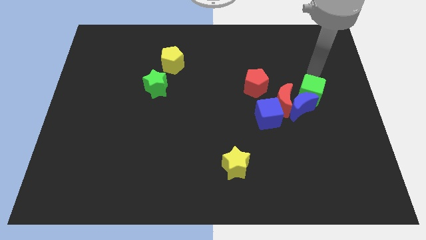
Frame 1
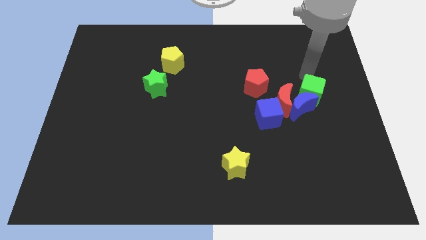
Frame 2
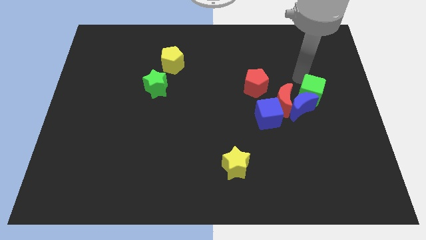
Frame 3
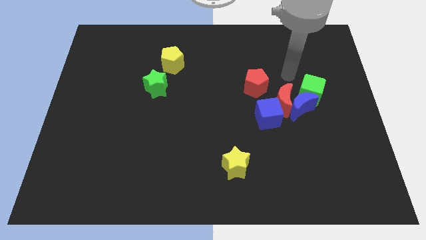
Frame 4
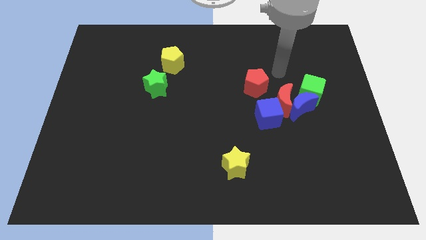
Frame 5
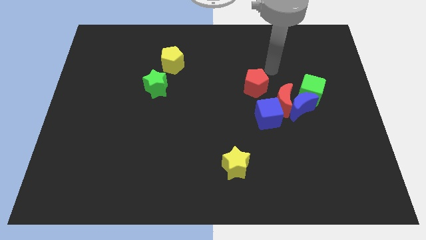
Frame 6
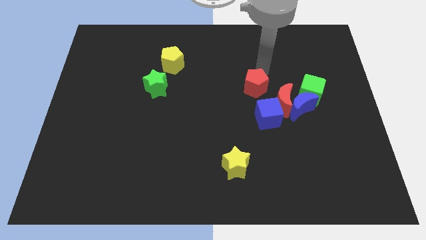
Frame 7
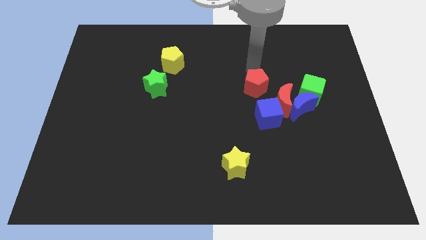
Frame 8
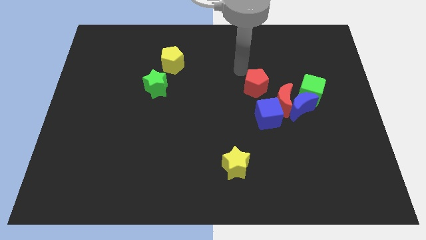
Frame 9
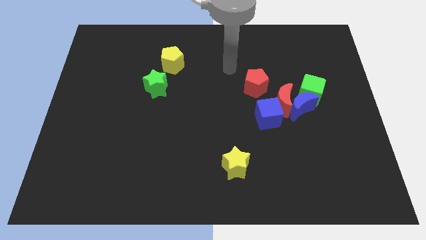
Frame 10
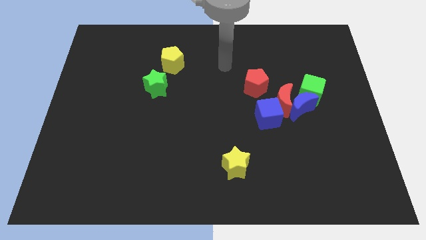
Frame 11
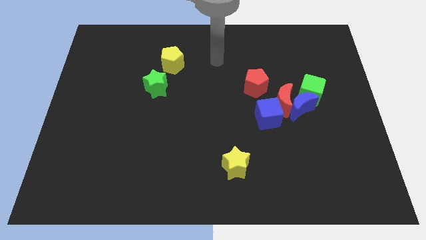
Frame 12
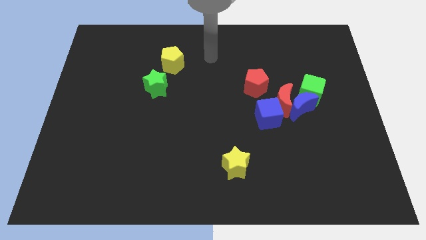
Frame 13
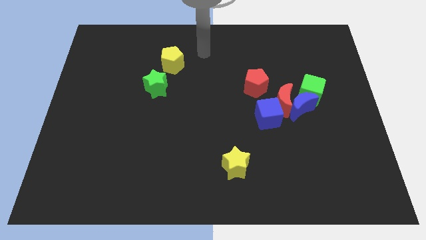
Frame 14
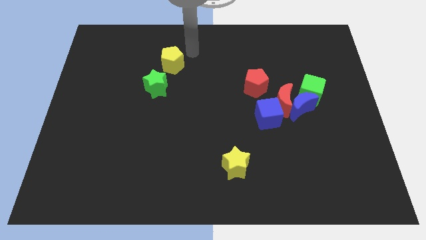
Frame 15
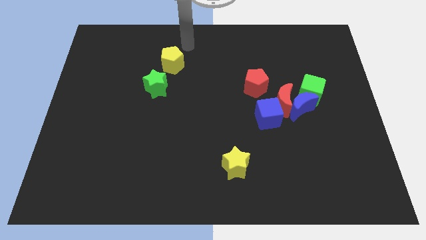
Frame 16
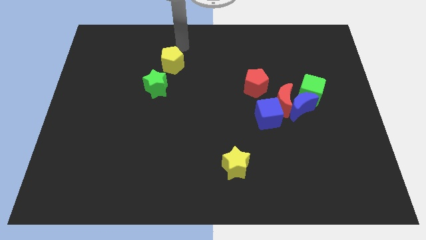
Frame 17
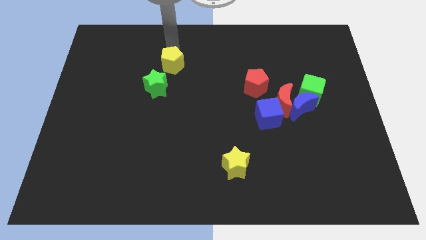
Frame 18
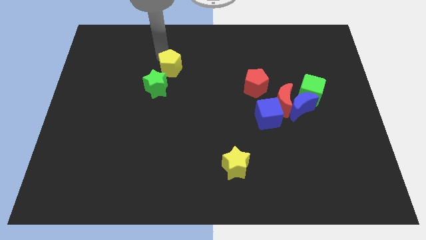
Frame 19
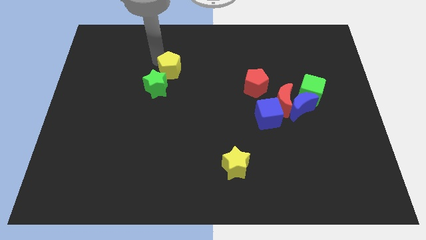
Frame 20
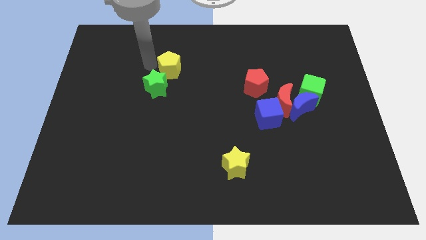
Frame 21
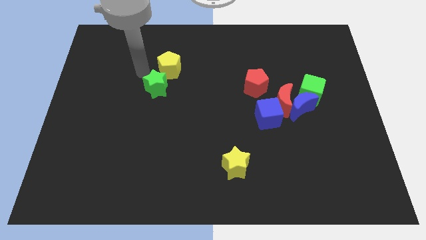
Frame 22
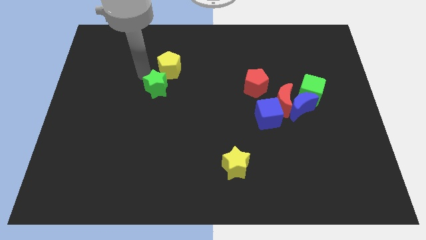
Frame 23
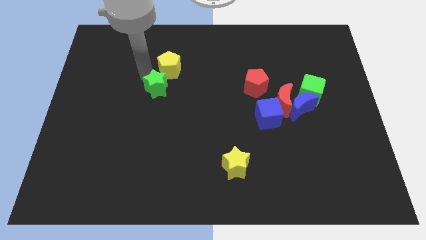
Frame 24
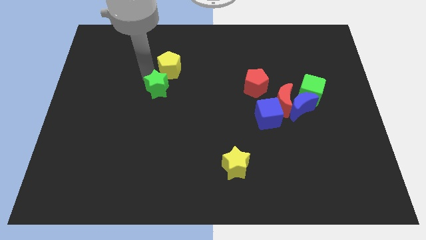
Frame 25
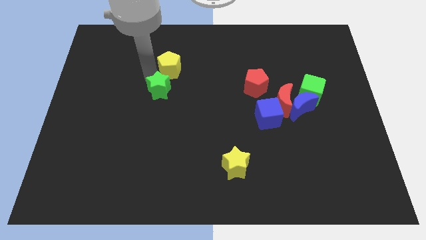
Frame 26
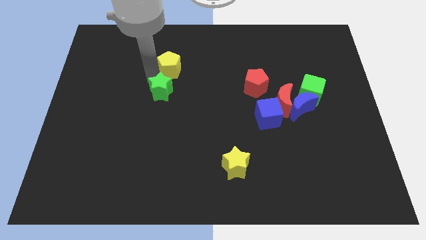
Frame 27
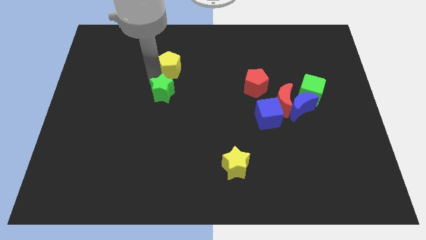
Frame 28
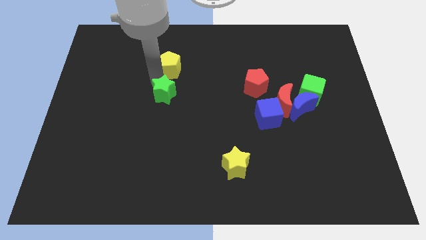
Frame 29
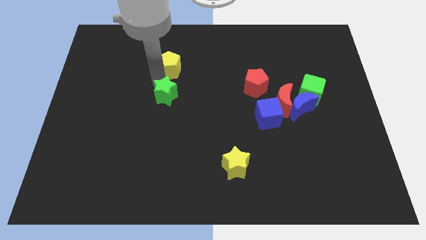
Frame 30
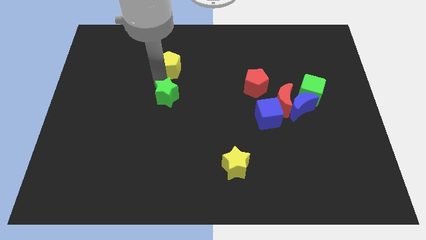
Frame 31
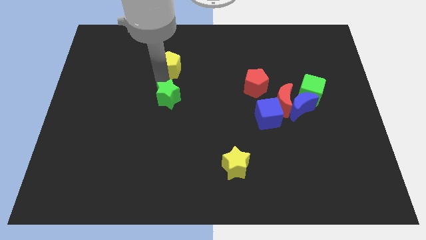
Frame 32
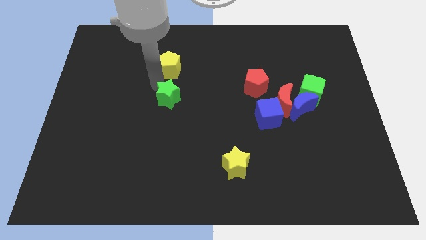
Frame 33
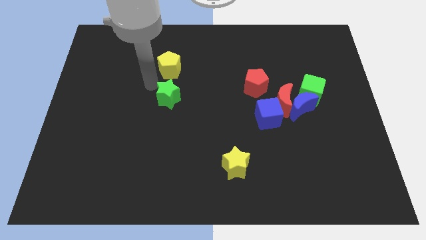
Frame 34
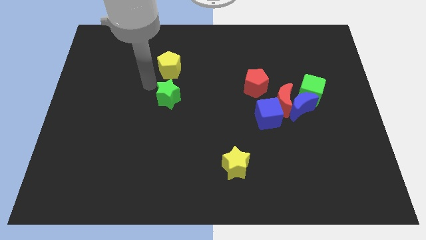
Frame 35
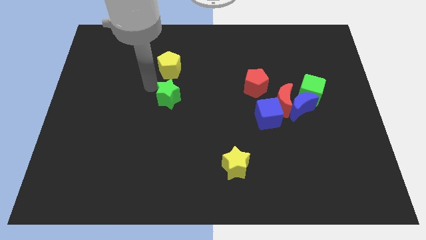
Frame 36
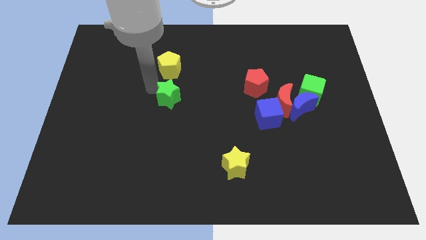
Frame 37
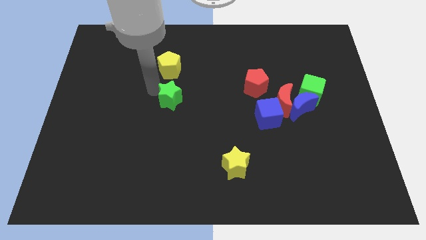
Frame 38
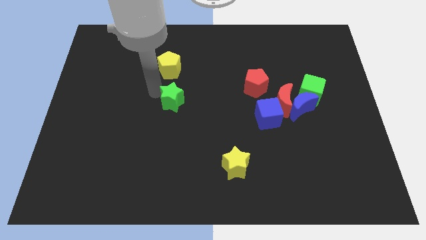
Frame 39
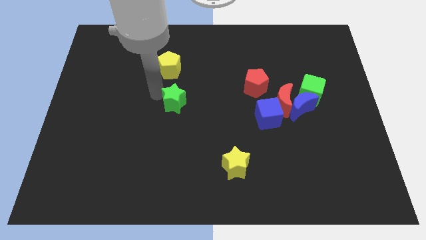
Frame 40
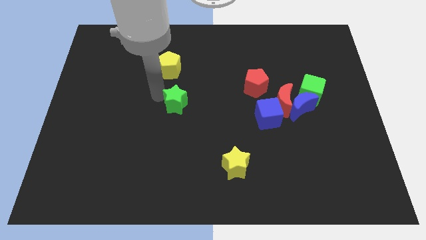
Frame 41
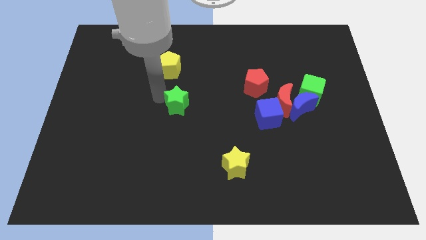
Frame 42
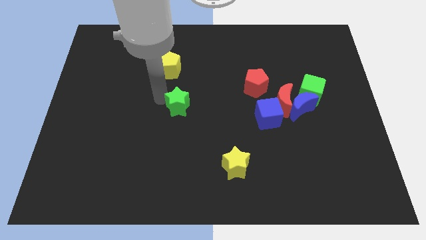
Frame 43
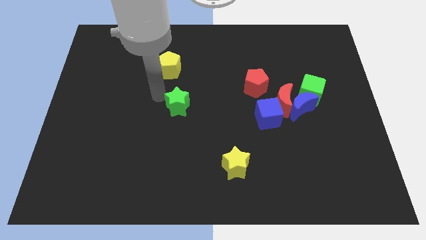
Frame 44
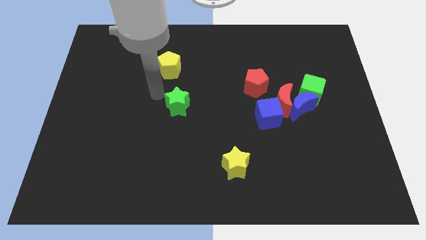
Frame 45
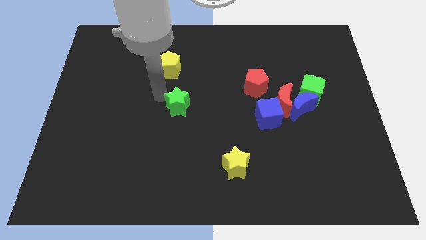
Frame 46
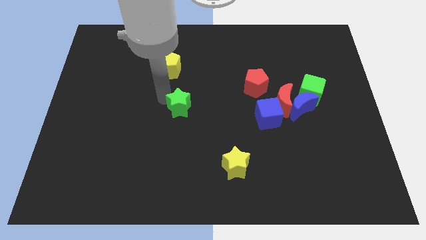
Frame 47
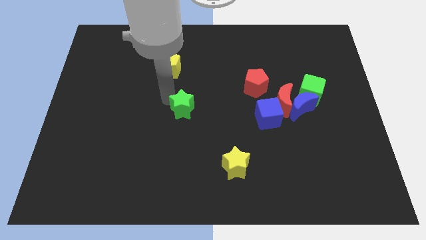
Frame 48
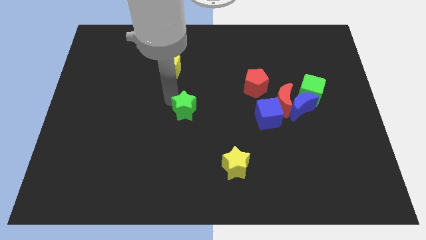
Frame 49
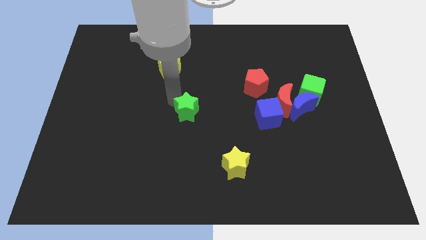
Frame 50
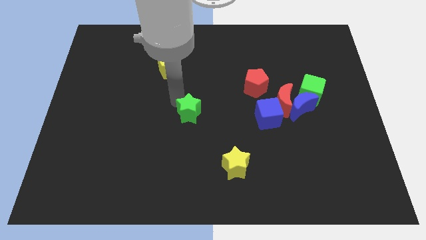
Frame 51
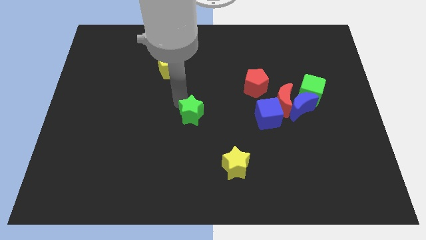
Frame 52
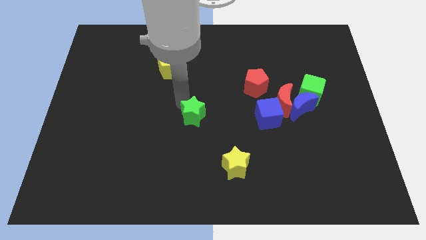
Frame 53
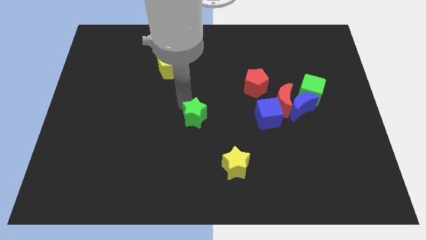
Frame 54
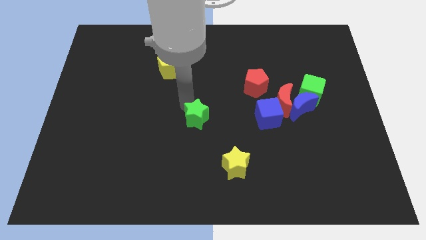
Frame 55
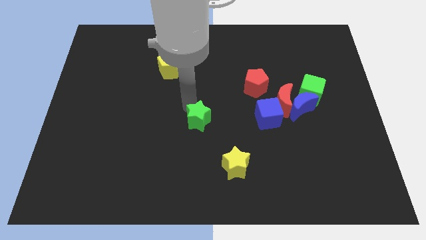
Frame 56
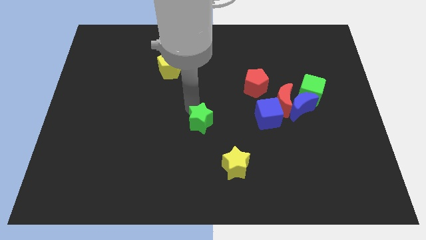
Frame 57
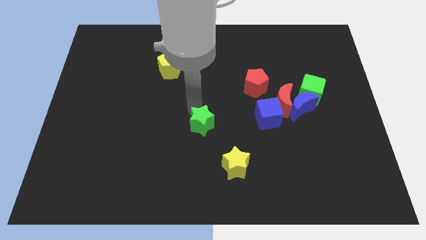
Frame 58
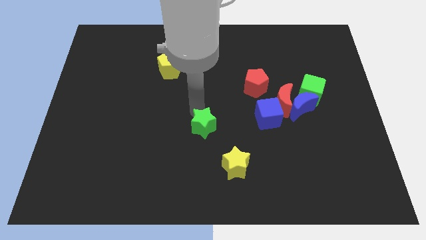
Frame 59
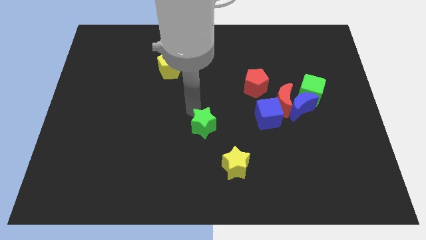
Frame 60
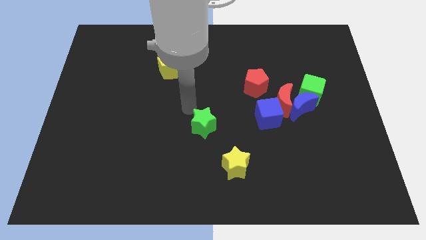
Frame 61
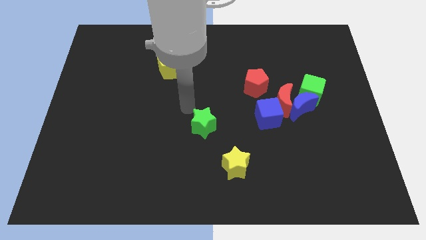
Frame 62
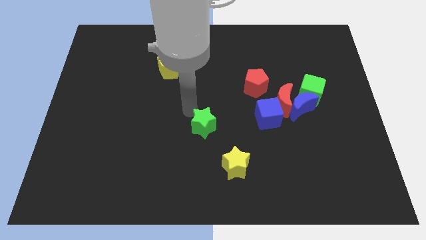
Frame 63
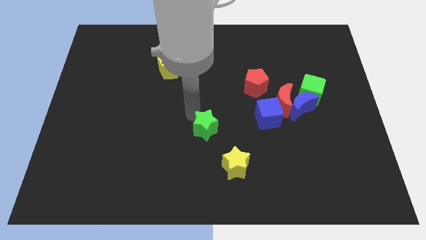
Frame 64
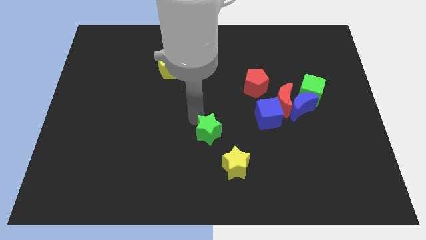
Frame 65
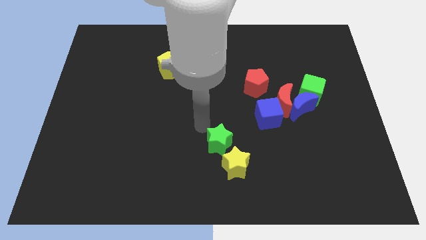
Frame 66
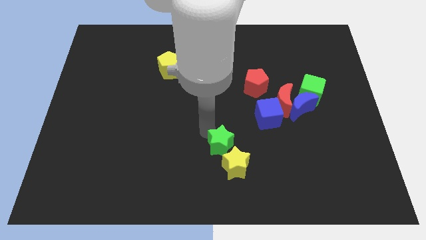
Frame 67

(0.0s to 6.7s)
slide the green star towards the yellow star
